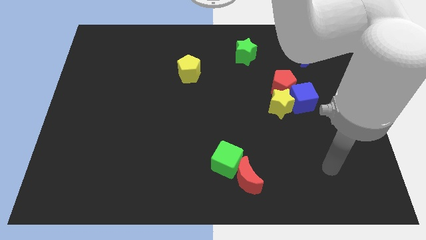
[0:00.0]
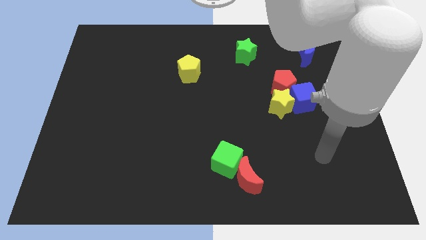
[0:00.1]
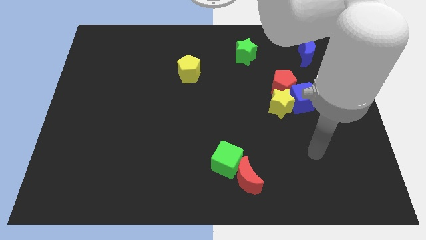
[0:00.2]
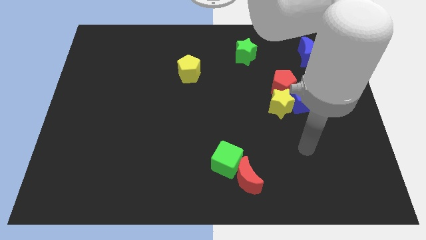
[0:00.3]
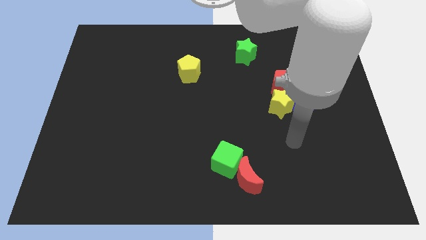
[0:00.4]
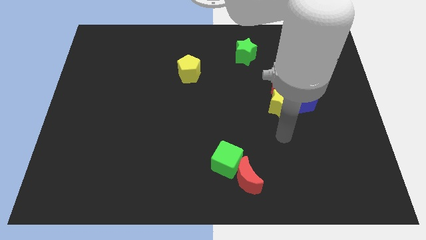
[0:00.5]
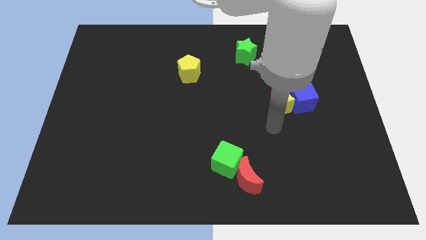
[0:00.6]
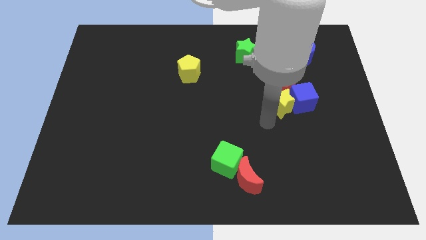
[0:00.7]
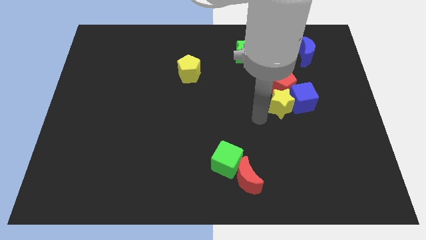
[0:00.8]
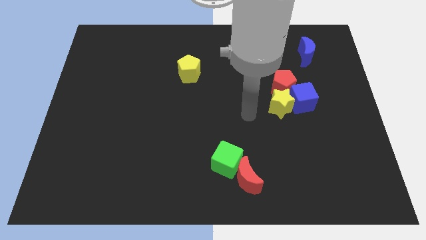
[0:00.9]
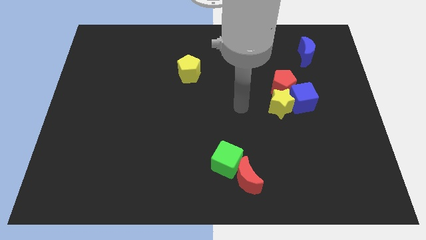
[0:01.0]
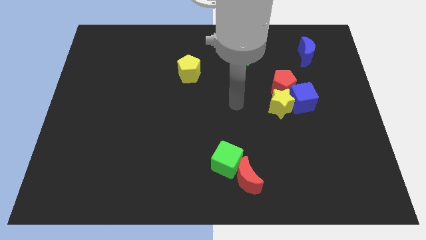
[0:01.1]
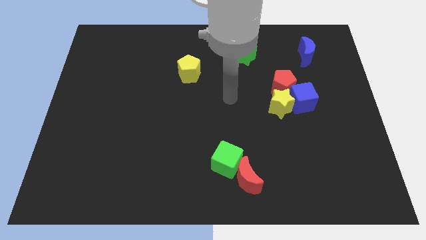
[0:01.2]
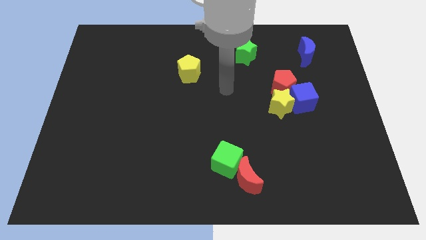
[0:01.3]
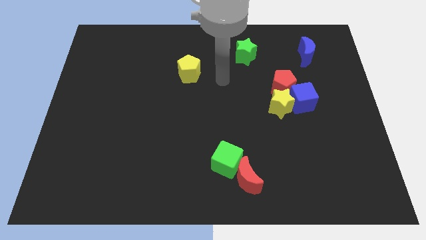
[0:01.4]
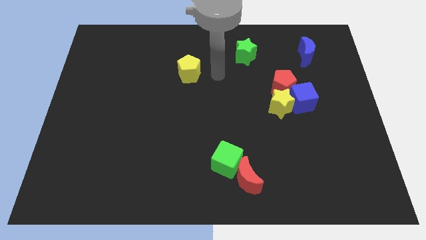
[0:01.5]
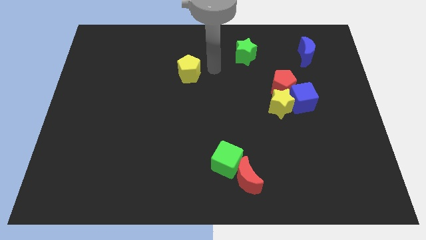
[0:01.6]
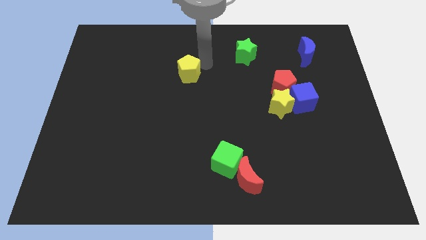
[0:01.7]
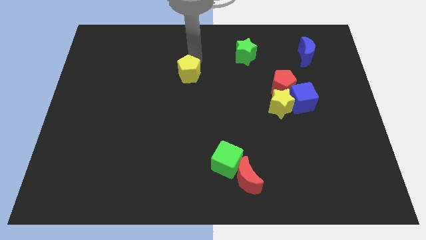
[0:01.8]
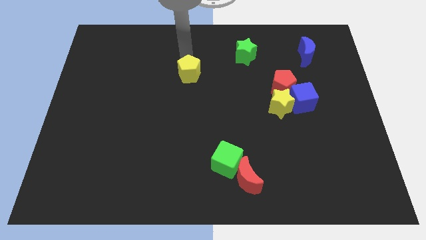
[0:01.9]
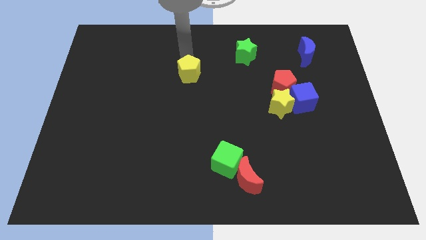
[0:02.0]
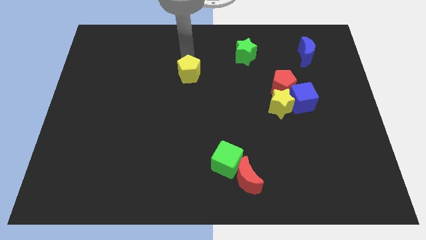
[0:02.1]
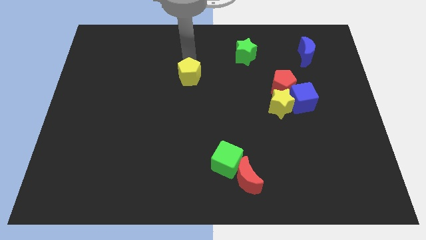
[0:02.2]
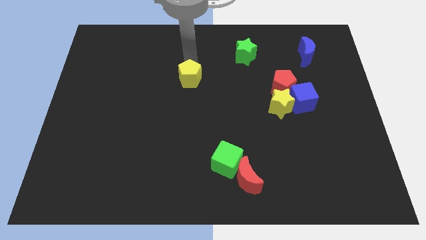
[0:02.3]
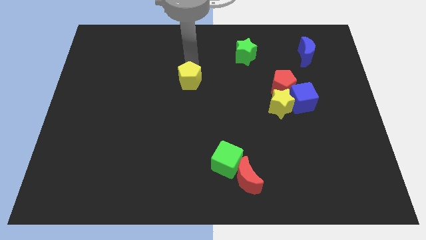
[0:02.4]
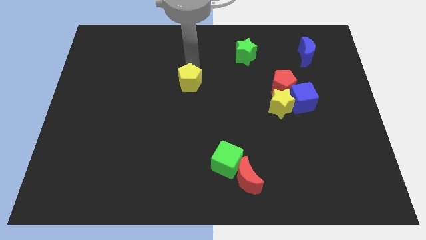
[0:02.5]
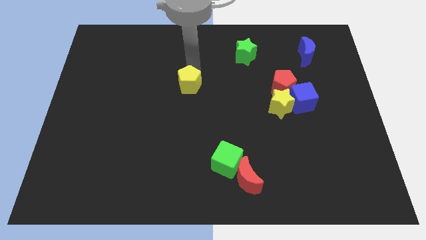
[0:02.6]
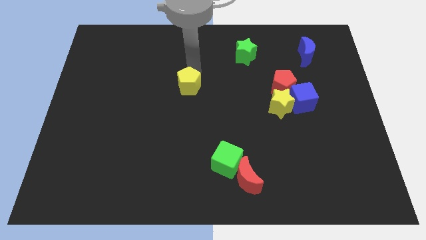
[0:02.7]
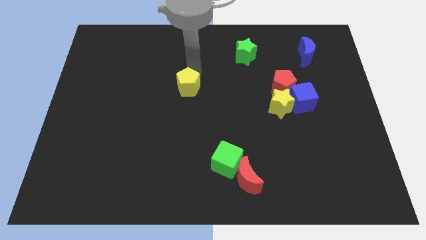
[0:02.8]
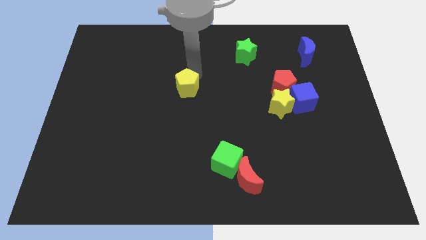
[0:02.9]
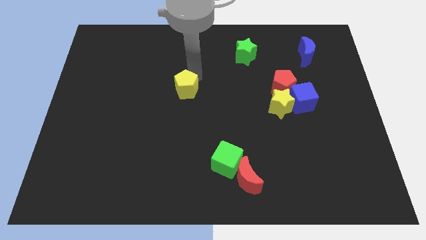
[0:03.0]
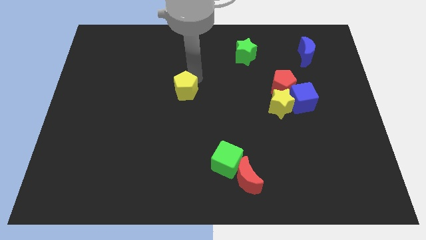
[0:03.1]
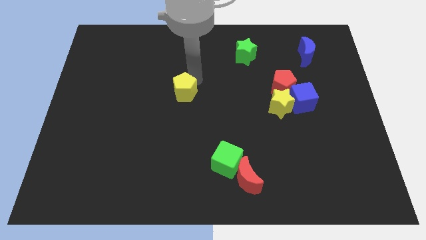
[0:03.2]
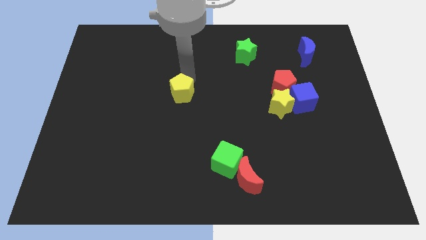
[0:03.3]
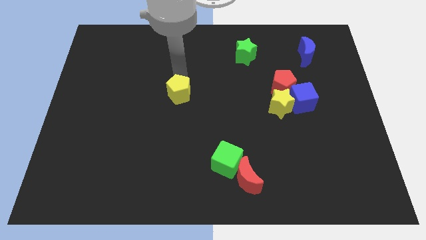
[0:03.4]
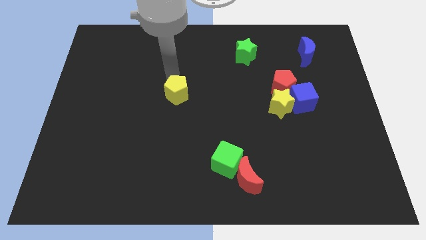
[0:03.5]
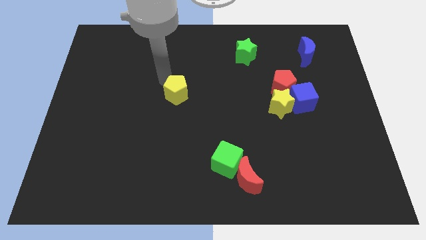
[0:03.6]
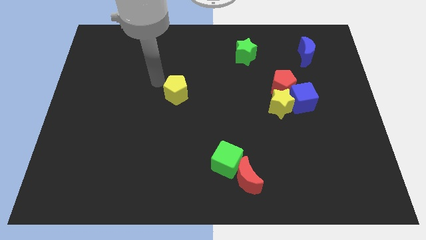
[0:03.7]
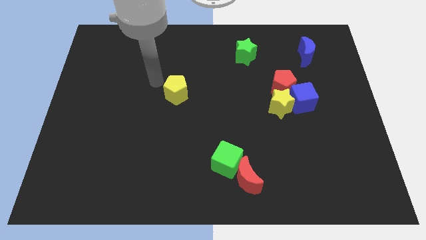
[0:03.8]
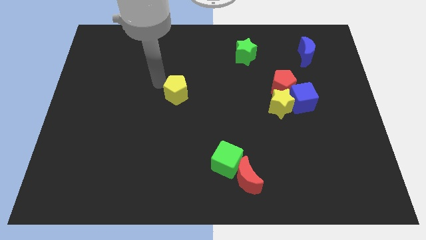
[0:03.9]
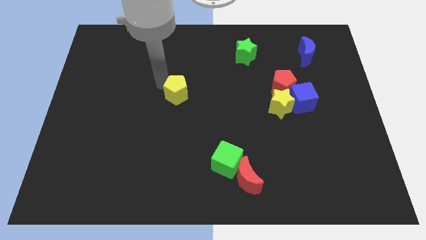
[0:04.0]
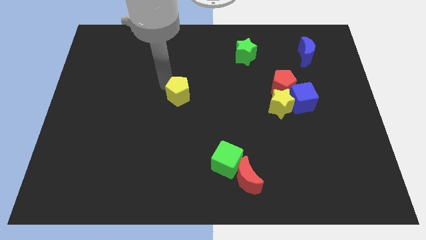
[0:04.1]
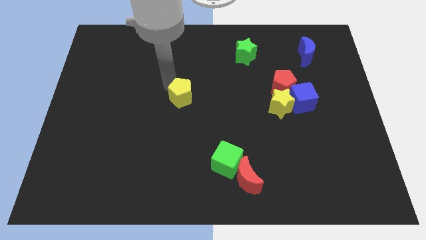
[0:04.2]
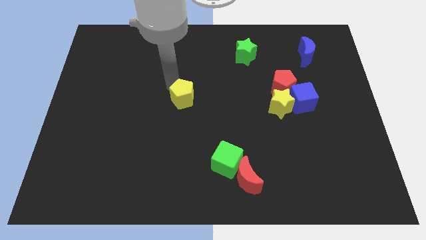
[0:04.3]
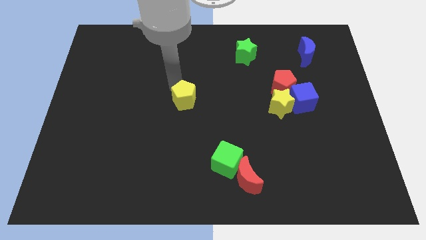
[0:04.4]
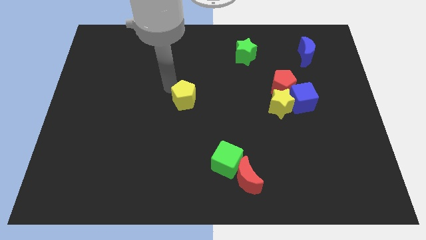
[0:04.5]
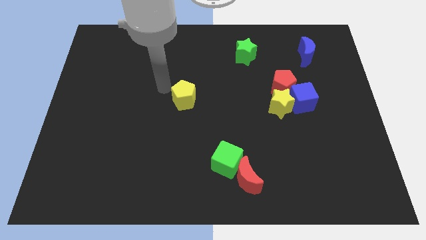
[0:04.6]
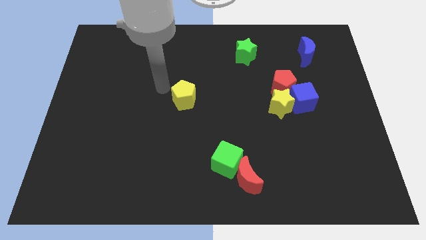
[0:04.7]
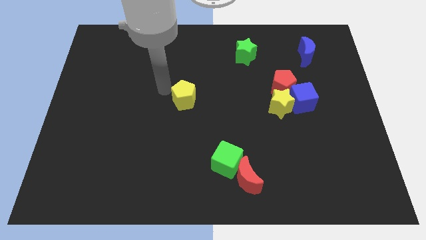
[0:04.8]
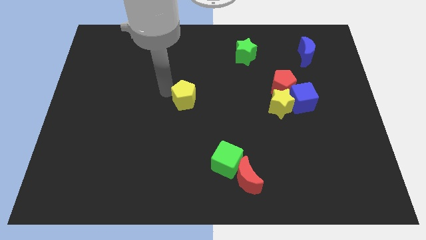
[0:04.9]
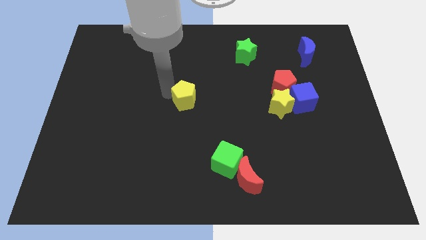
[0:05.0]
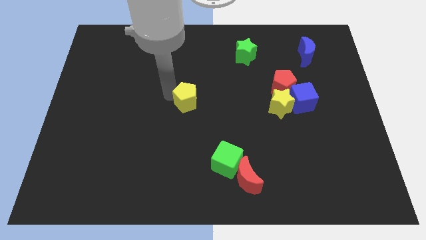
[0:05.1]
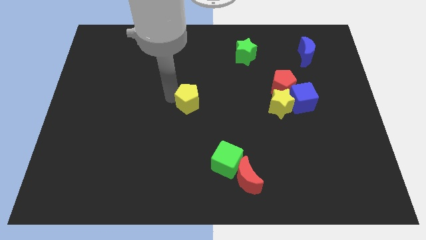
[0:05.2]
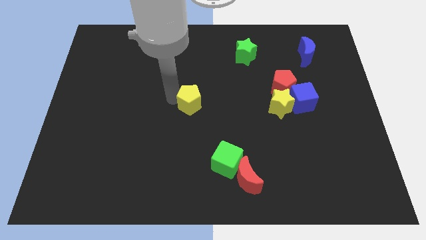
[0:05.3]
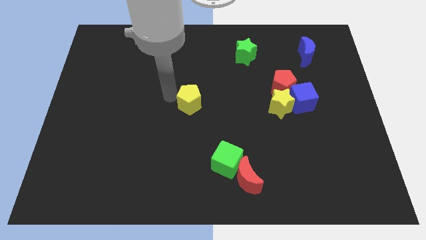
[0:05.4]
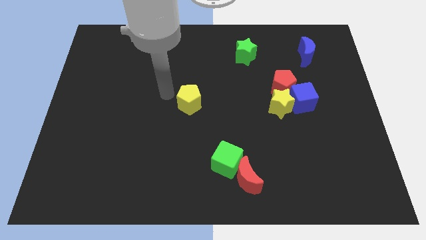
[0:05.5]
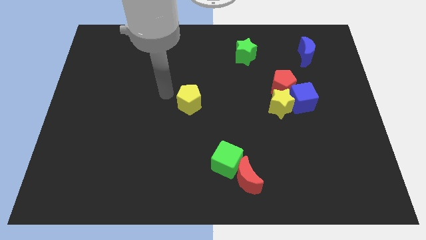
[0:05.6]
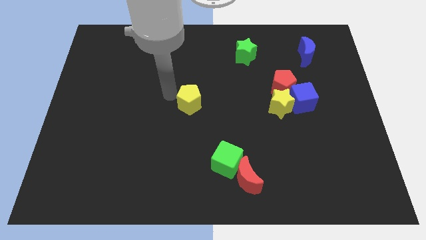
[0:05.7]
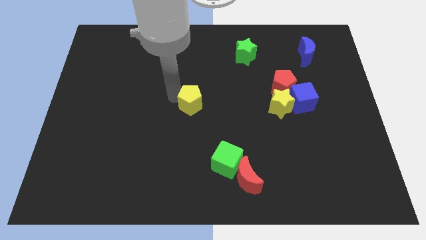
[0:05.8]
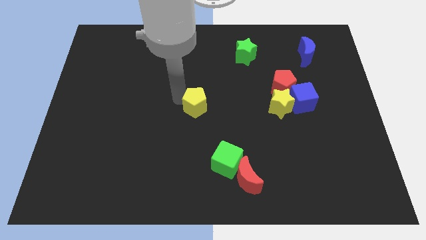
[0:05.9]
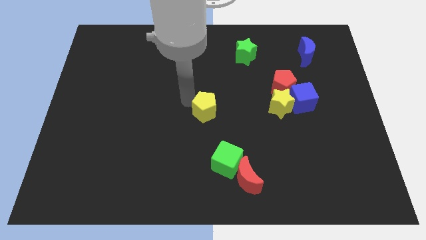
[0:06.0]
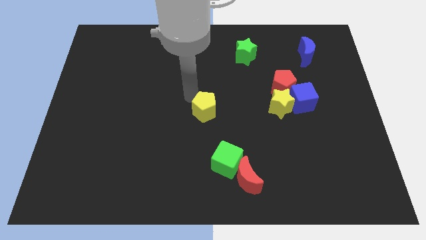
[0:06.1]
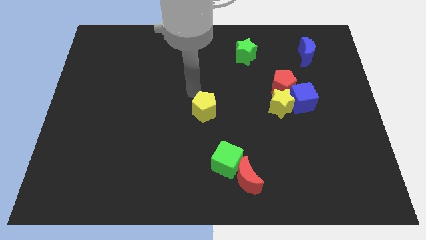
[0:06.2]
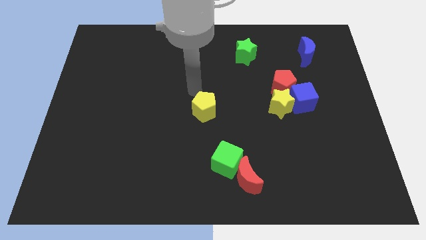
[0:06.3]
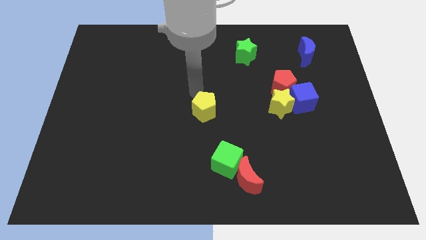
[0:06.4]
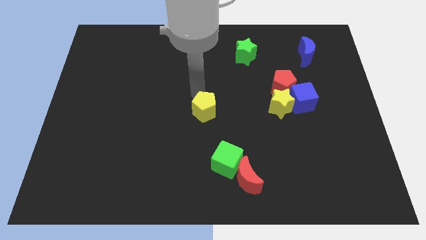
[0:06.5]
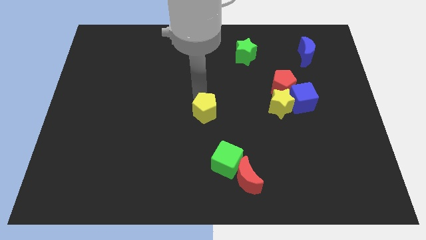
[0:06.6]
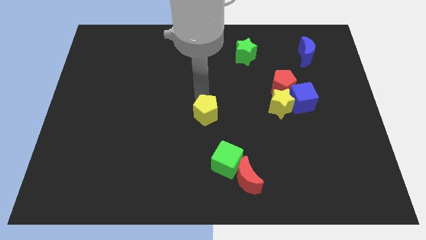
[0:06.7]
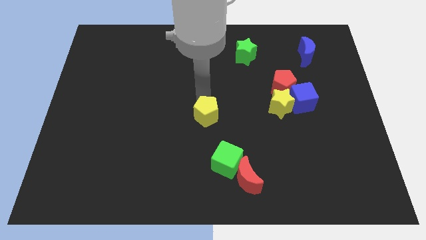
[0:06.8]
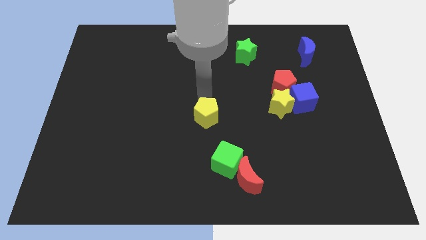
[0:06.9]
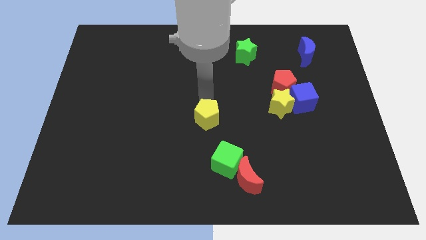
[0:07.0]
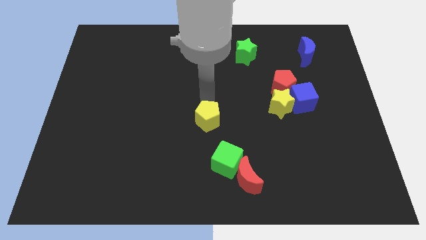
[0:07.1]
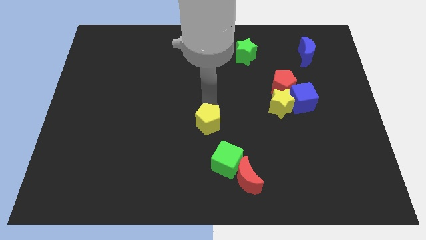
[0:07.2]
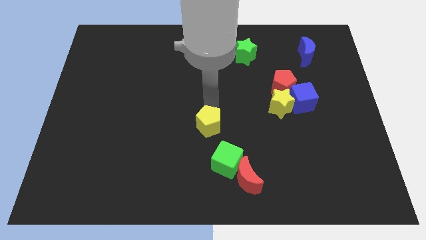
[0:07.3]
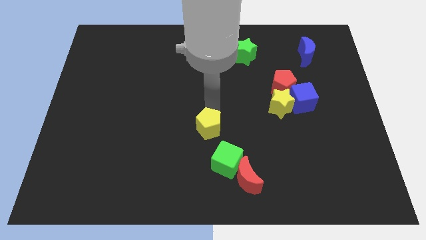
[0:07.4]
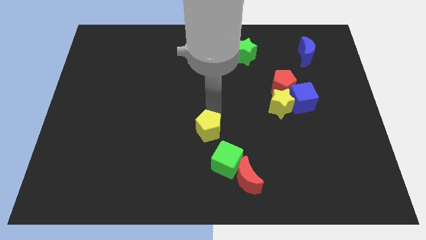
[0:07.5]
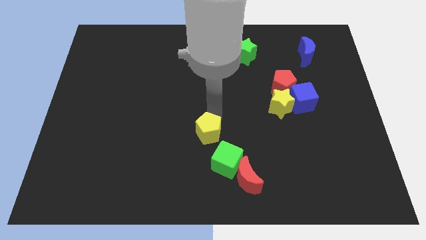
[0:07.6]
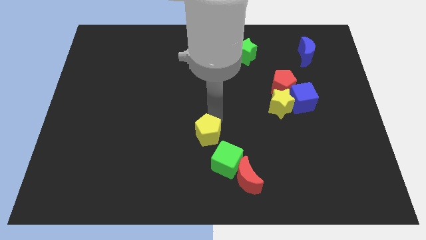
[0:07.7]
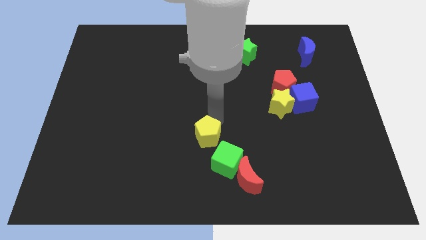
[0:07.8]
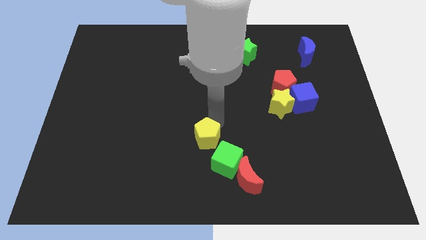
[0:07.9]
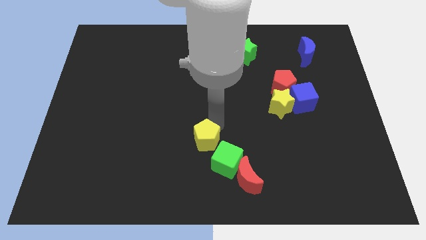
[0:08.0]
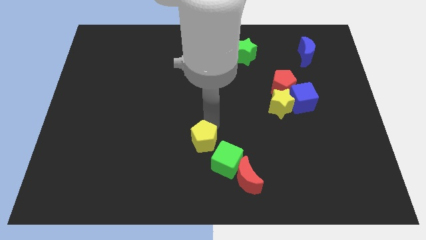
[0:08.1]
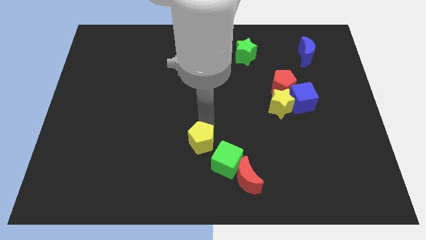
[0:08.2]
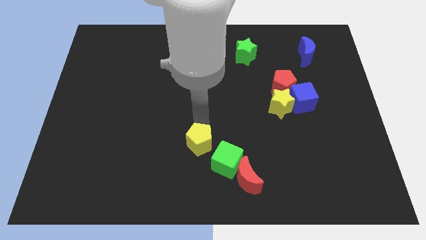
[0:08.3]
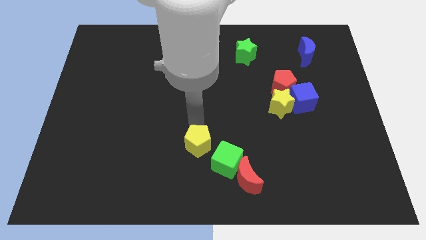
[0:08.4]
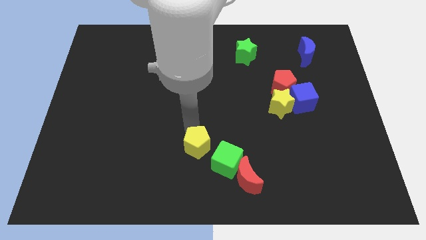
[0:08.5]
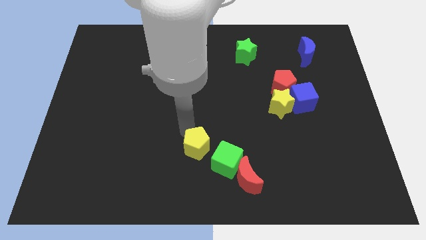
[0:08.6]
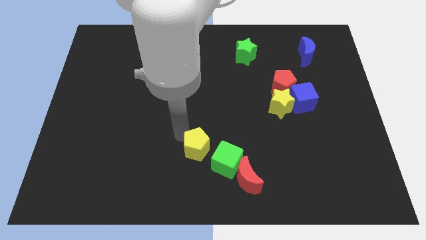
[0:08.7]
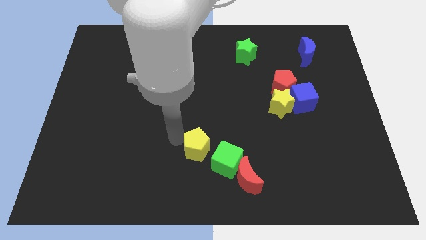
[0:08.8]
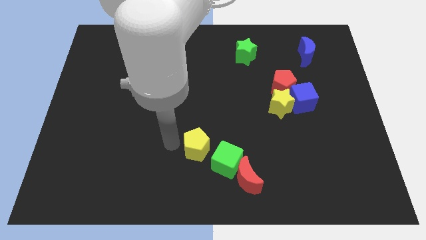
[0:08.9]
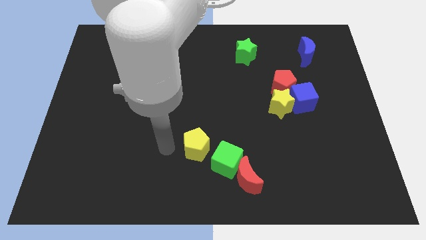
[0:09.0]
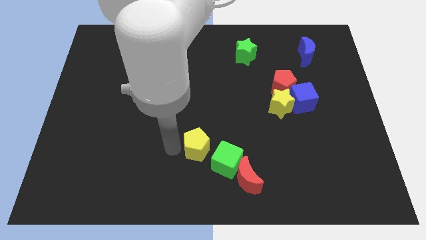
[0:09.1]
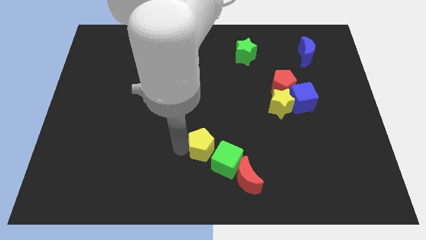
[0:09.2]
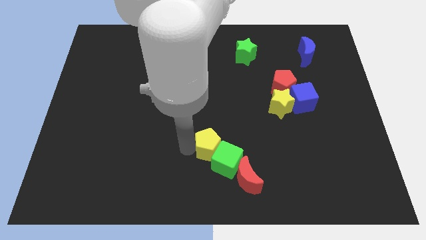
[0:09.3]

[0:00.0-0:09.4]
push the yellow pentagon towards the green cube
